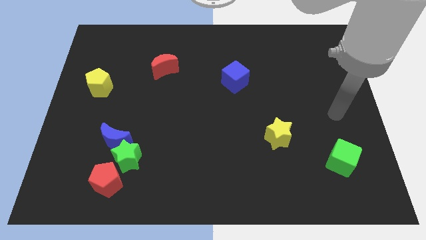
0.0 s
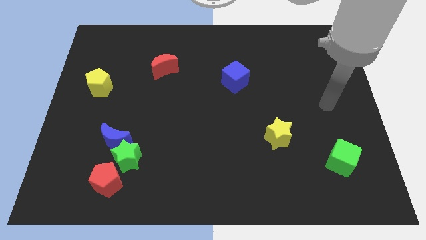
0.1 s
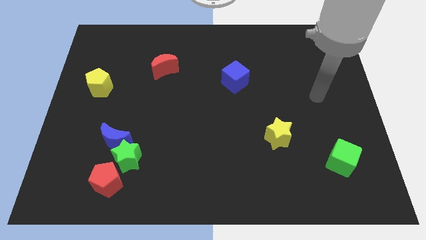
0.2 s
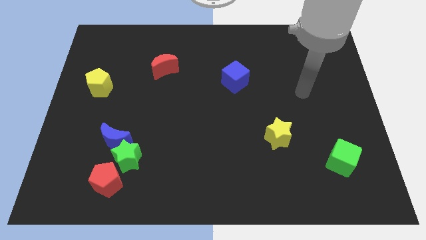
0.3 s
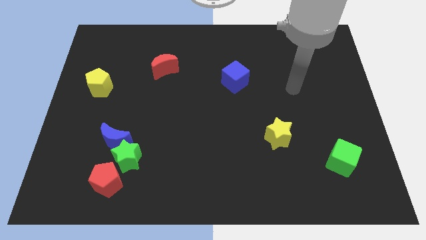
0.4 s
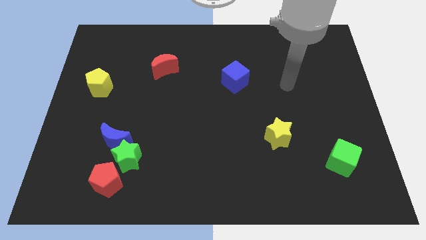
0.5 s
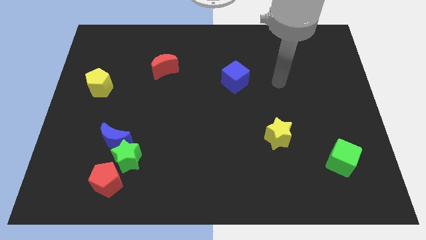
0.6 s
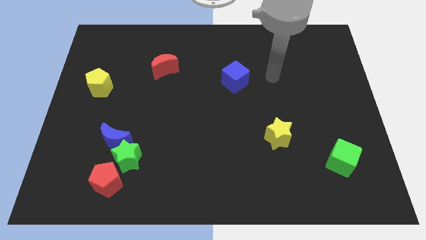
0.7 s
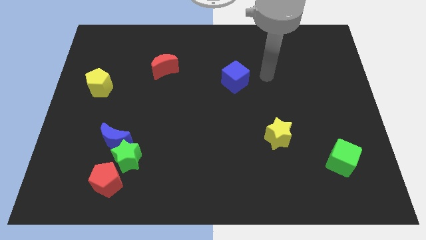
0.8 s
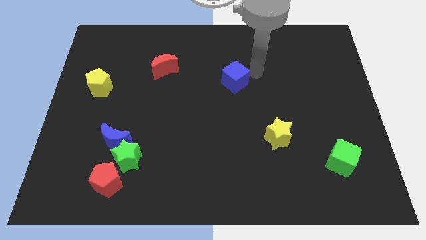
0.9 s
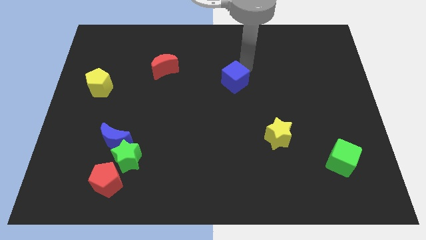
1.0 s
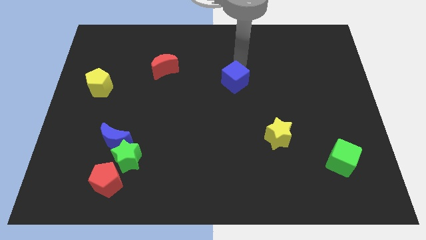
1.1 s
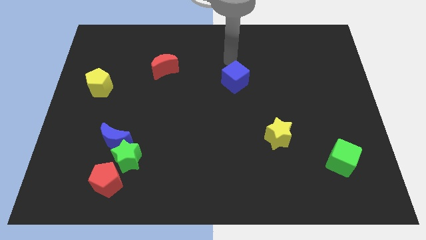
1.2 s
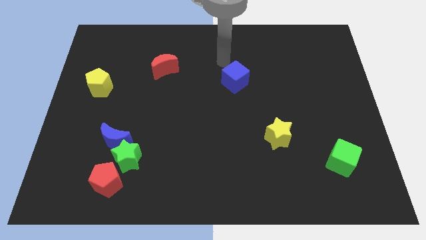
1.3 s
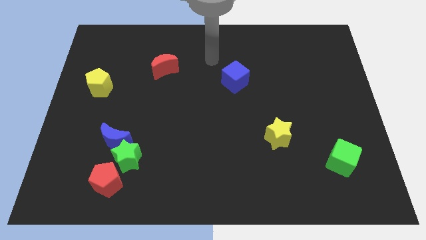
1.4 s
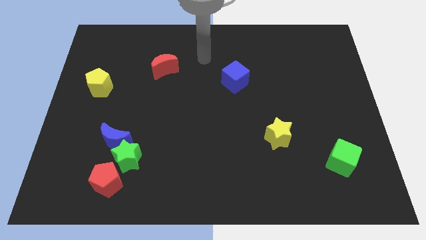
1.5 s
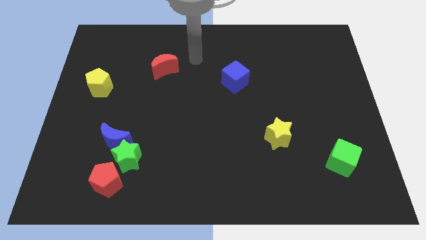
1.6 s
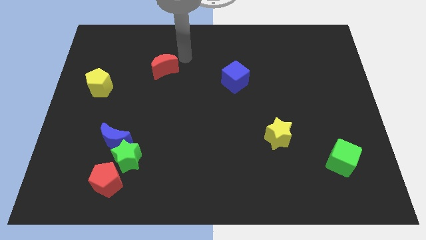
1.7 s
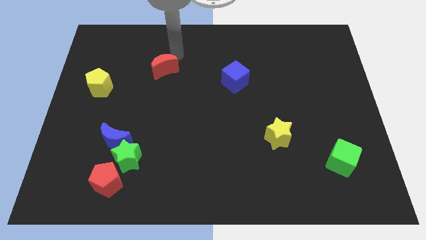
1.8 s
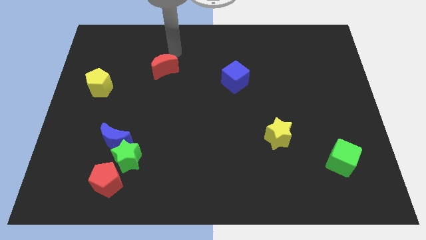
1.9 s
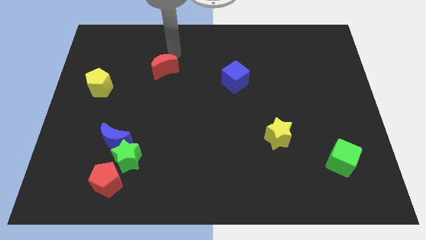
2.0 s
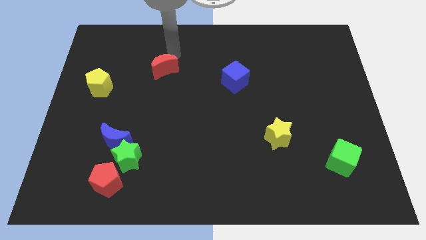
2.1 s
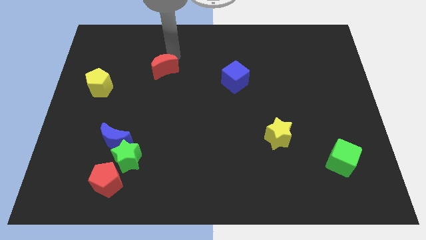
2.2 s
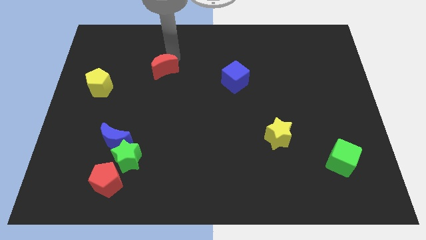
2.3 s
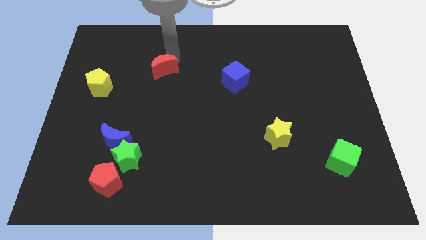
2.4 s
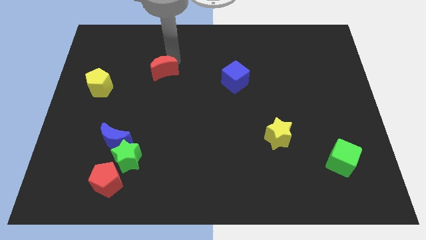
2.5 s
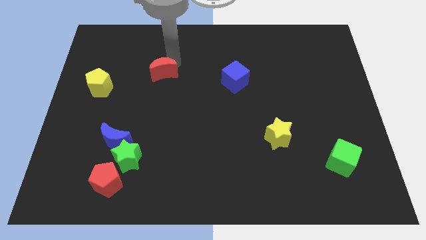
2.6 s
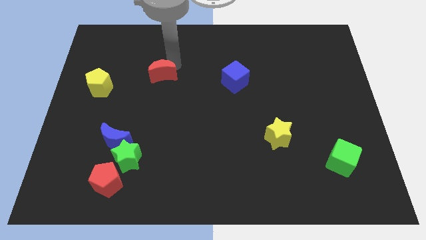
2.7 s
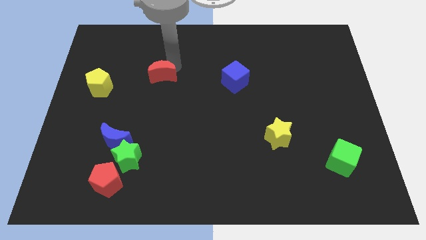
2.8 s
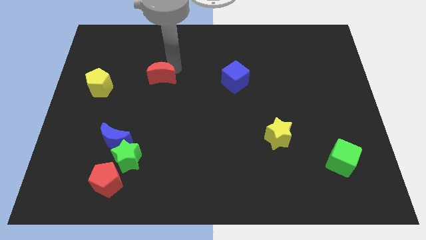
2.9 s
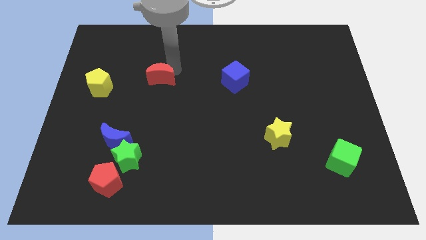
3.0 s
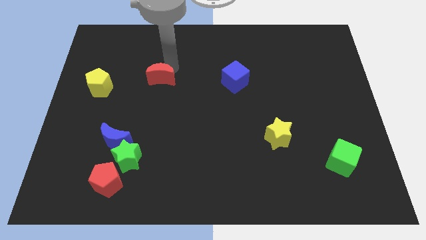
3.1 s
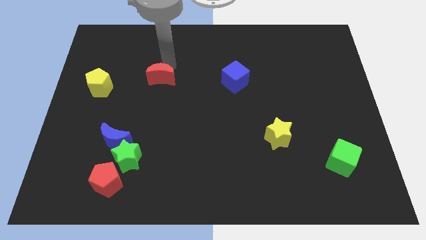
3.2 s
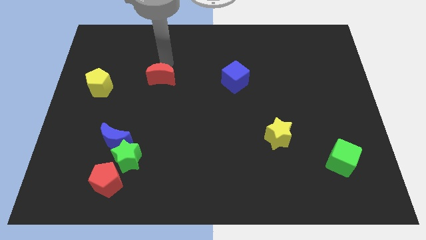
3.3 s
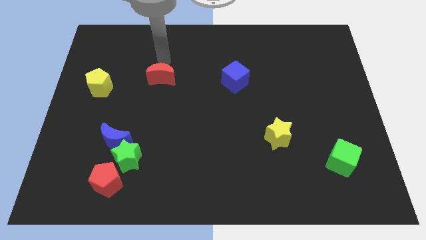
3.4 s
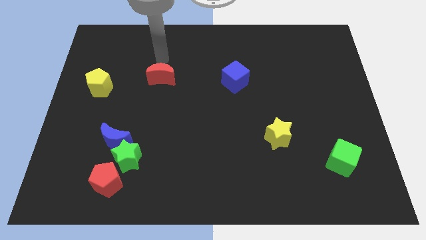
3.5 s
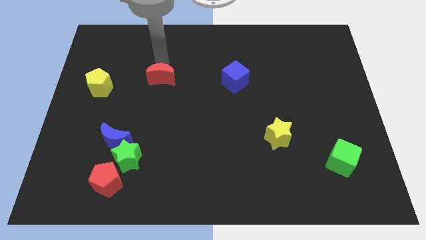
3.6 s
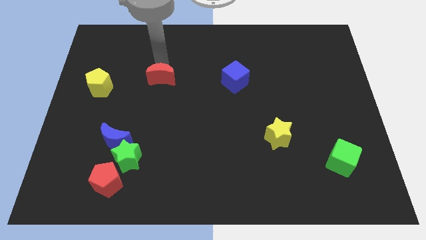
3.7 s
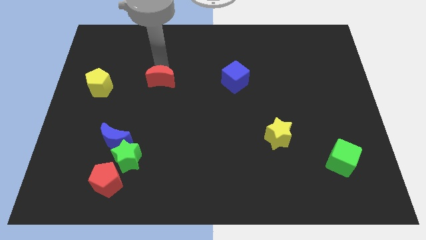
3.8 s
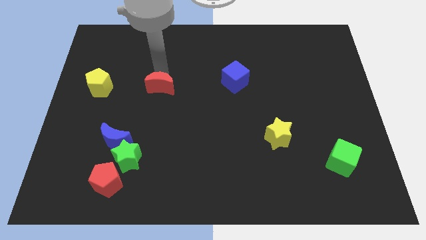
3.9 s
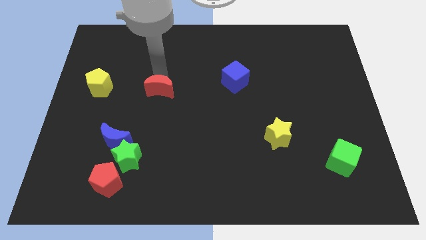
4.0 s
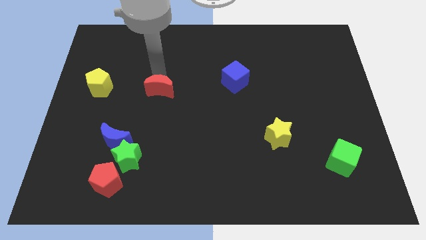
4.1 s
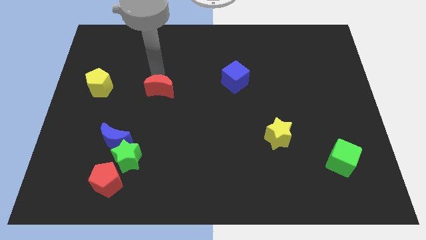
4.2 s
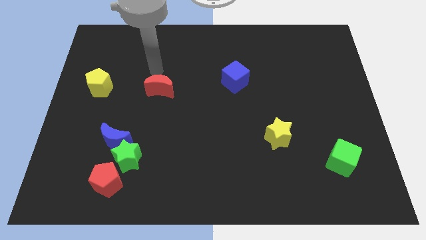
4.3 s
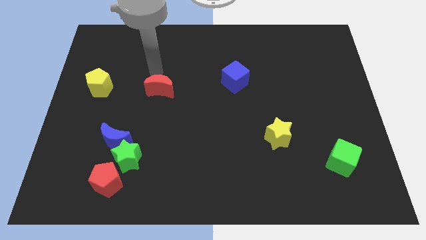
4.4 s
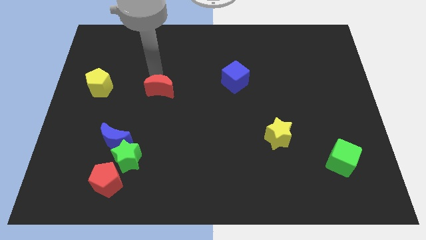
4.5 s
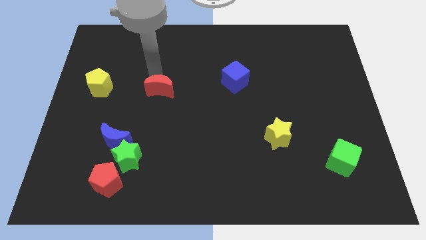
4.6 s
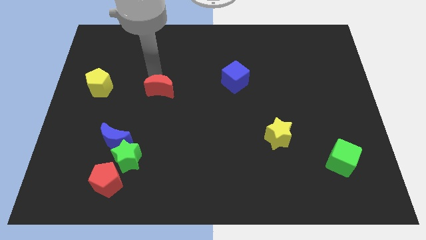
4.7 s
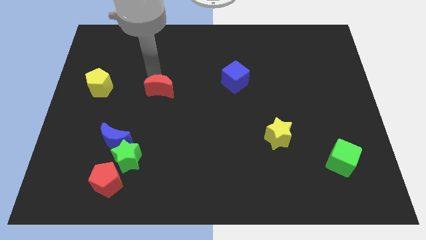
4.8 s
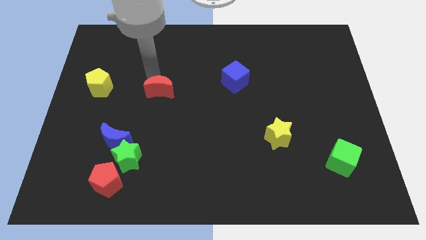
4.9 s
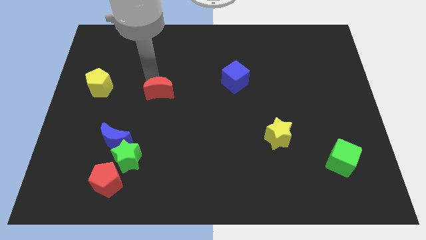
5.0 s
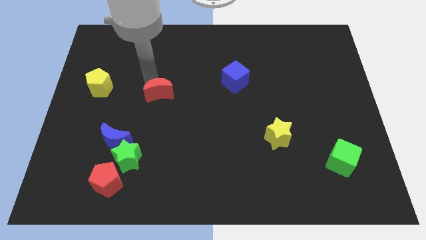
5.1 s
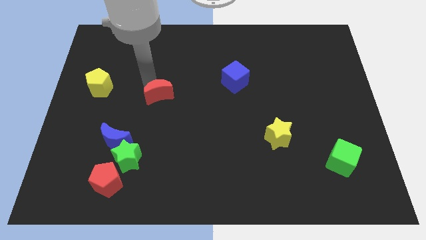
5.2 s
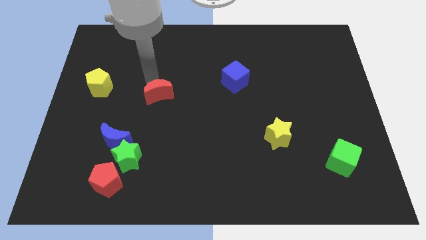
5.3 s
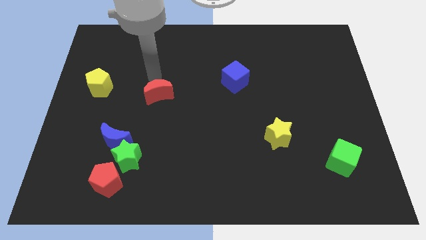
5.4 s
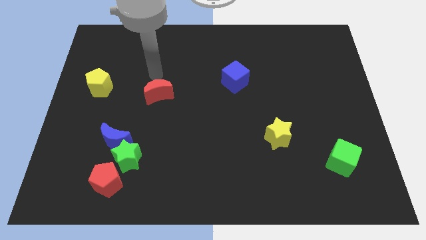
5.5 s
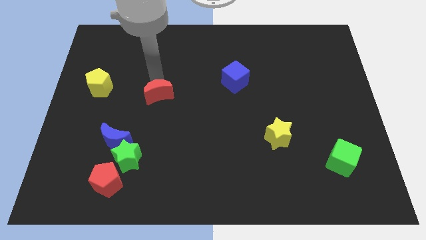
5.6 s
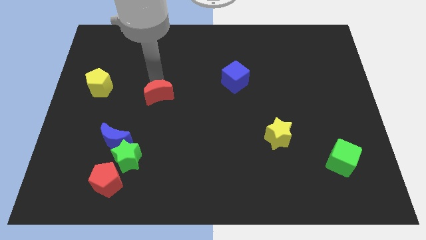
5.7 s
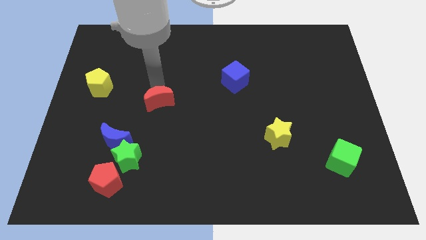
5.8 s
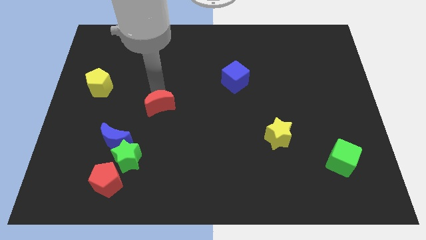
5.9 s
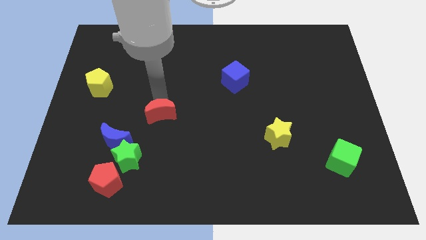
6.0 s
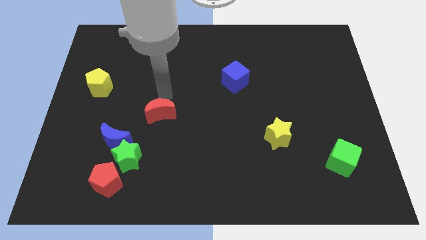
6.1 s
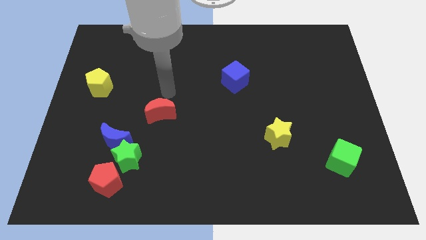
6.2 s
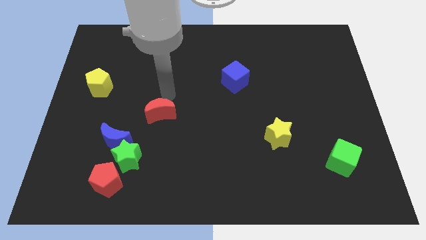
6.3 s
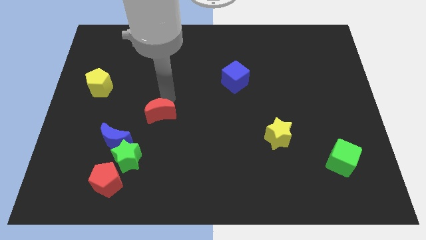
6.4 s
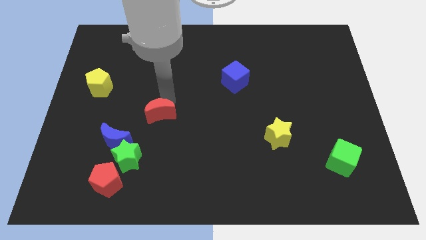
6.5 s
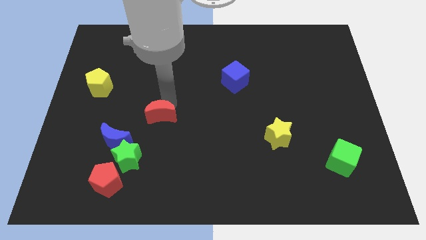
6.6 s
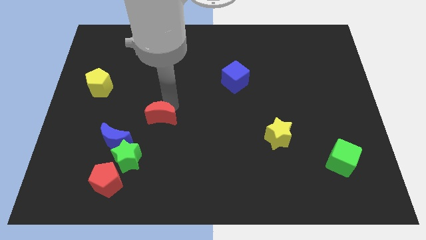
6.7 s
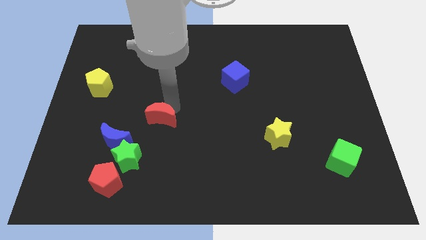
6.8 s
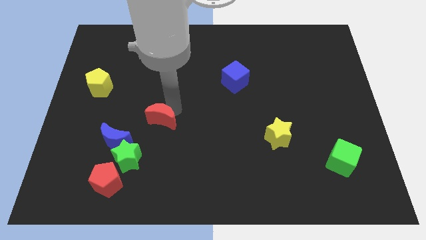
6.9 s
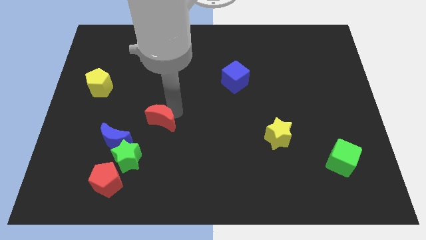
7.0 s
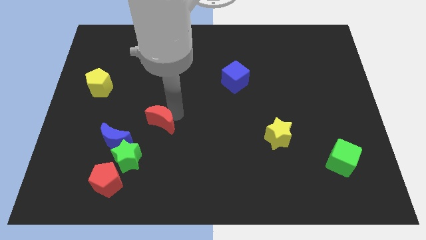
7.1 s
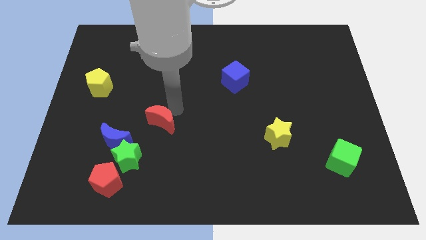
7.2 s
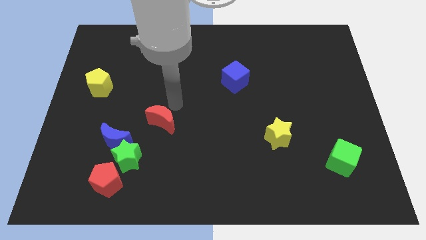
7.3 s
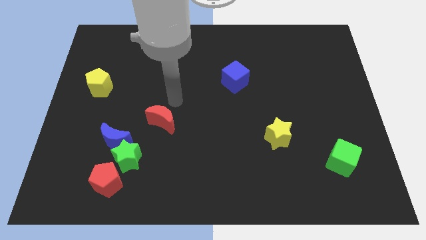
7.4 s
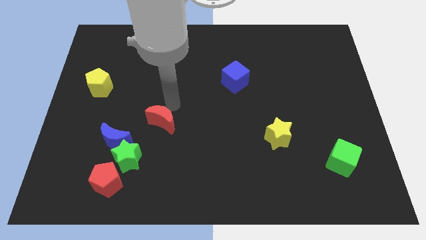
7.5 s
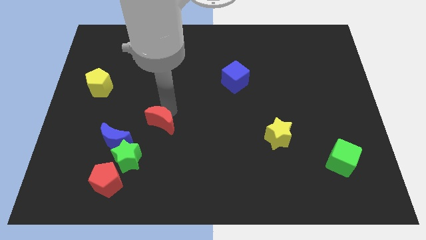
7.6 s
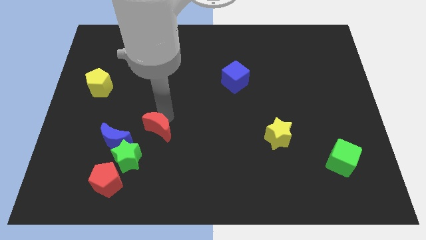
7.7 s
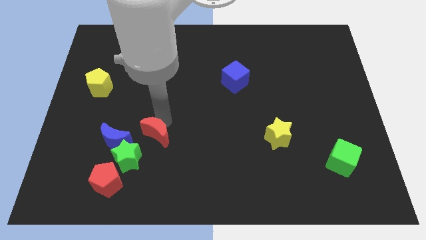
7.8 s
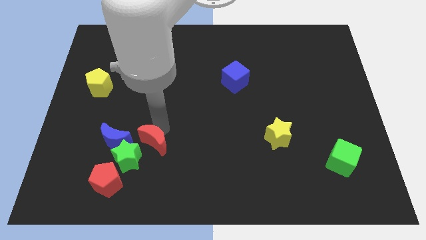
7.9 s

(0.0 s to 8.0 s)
slide the red moon to the top right of the red pentagon
